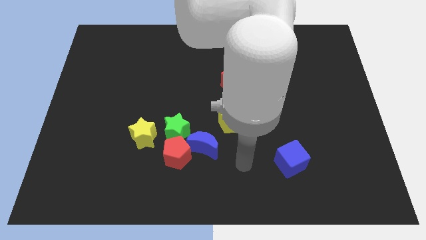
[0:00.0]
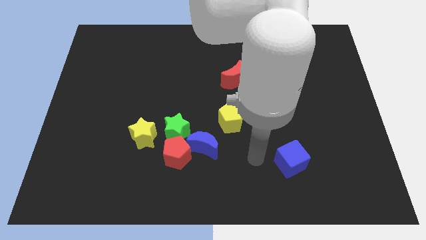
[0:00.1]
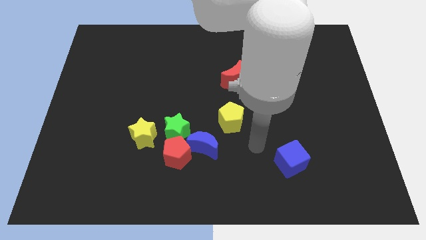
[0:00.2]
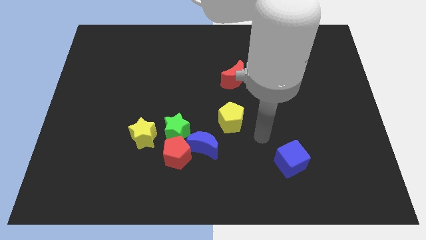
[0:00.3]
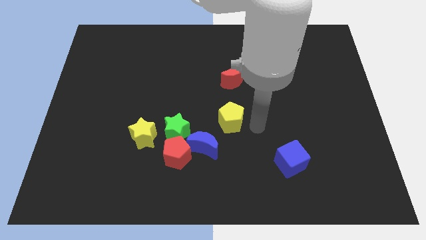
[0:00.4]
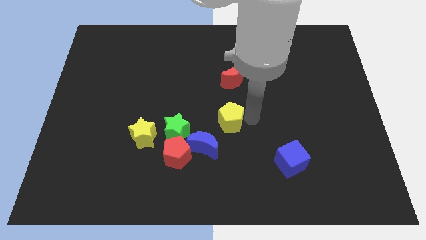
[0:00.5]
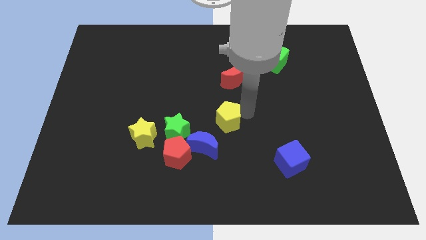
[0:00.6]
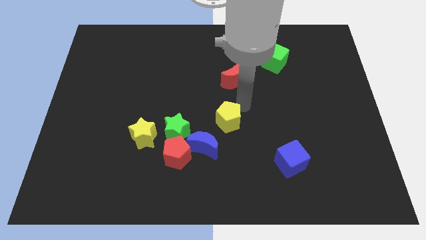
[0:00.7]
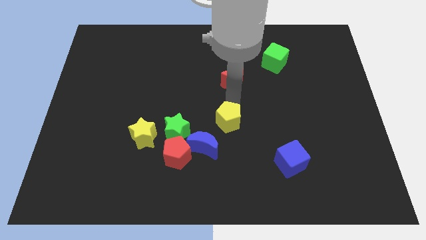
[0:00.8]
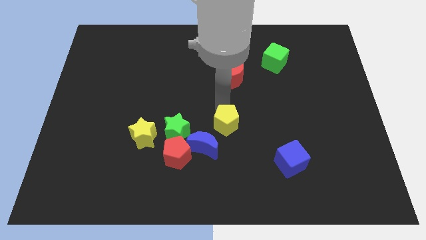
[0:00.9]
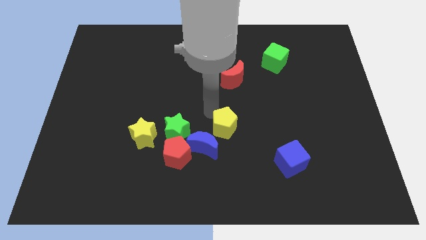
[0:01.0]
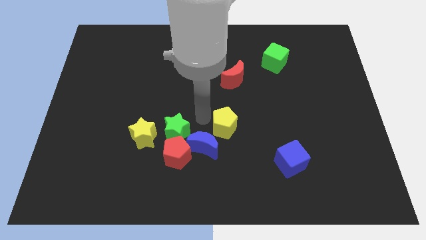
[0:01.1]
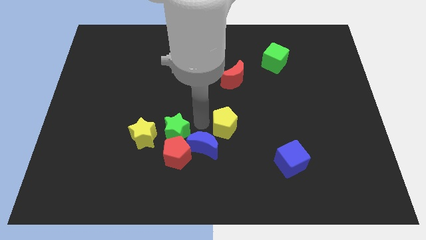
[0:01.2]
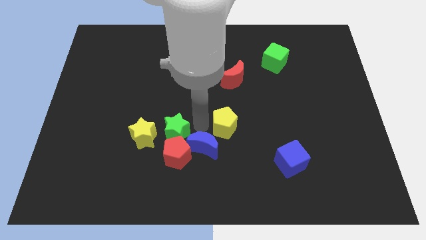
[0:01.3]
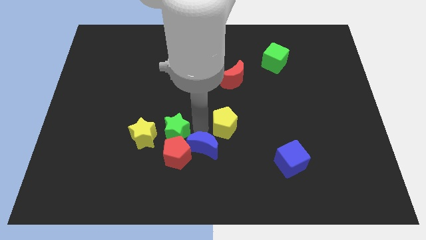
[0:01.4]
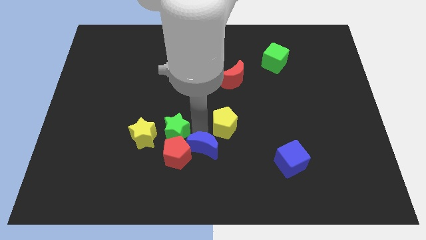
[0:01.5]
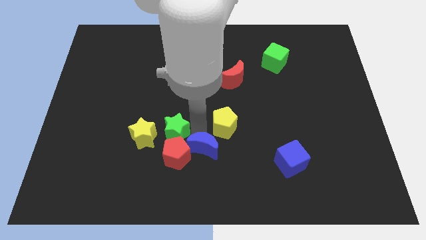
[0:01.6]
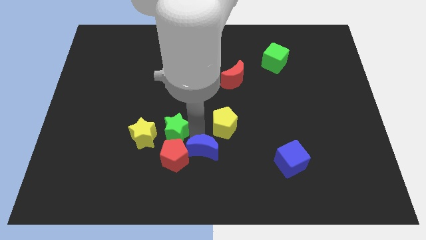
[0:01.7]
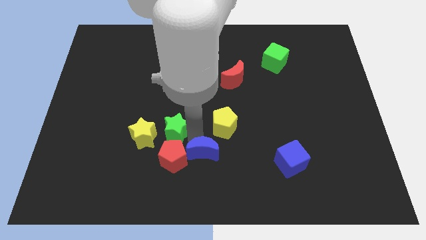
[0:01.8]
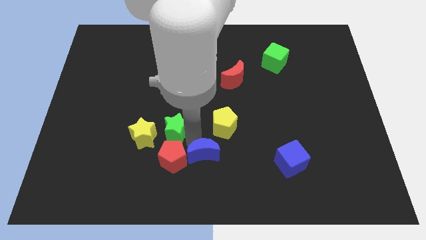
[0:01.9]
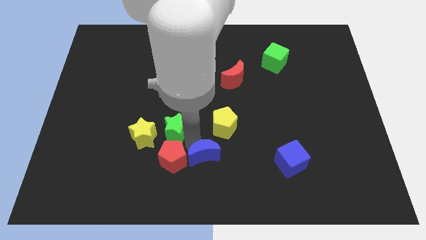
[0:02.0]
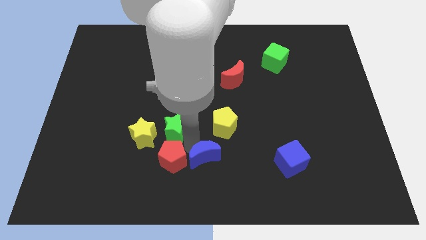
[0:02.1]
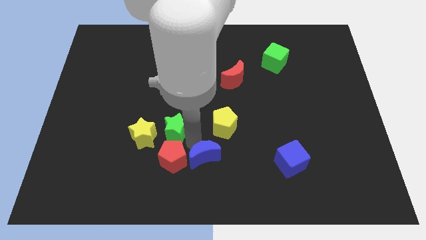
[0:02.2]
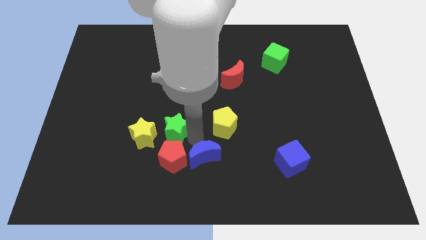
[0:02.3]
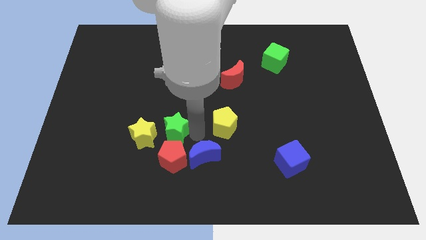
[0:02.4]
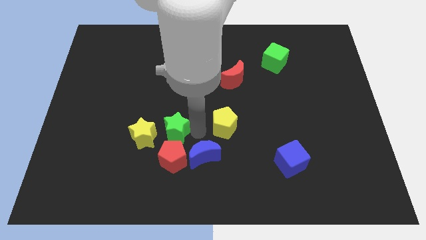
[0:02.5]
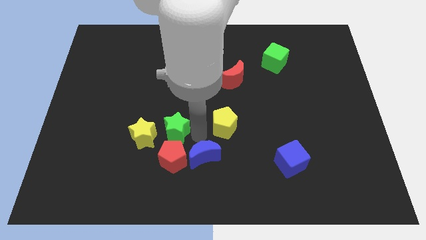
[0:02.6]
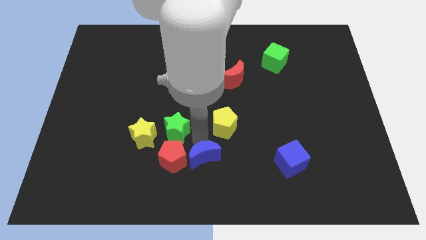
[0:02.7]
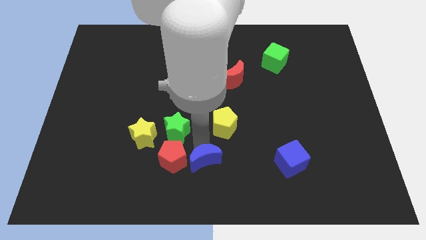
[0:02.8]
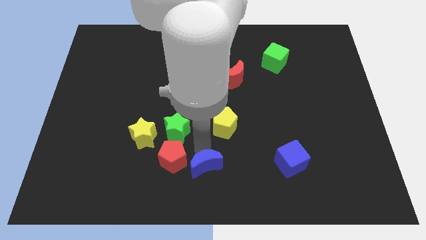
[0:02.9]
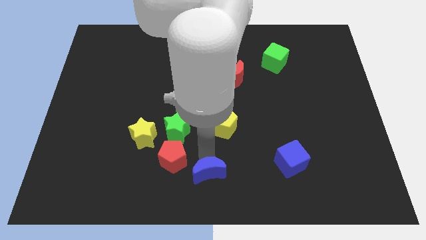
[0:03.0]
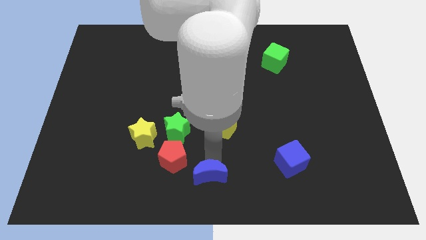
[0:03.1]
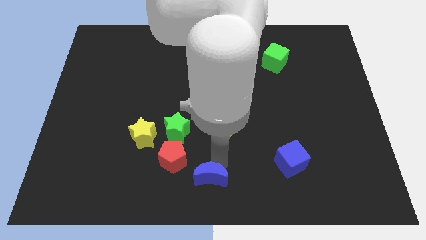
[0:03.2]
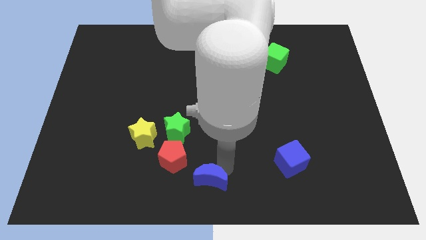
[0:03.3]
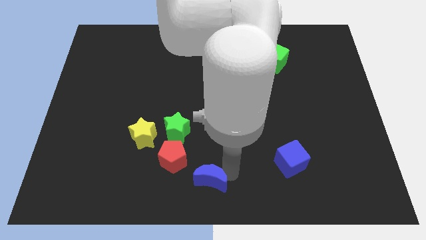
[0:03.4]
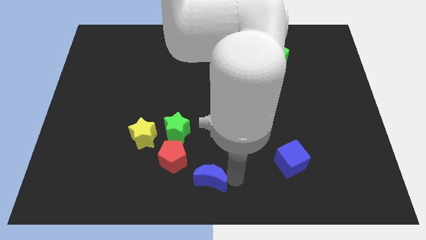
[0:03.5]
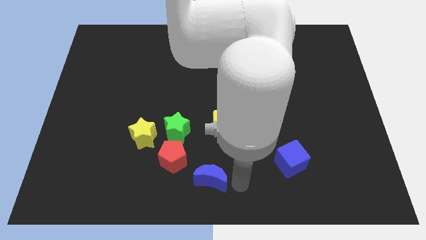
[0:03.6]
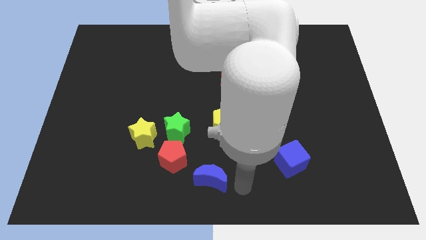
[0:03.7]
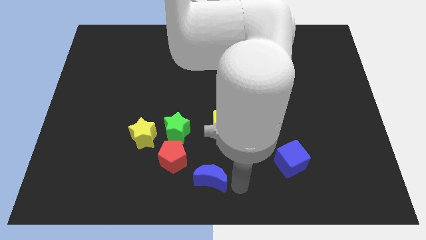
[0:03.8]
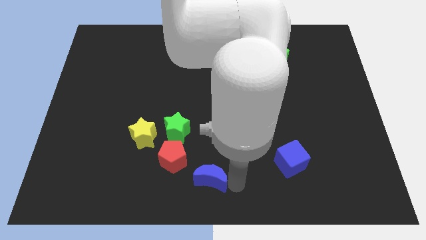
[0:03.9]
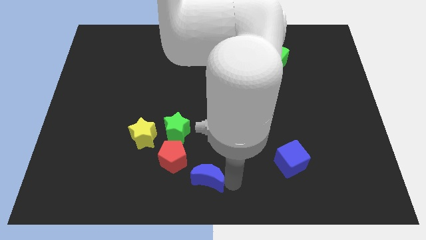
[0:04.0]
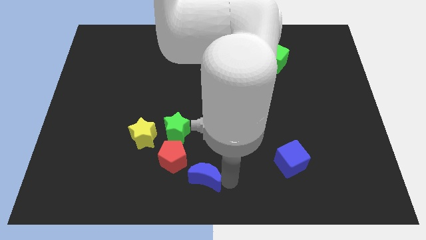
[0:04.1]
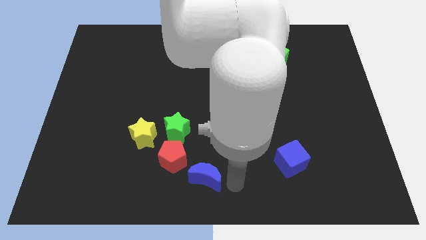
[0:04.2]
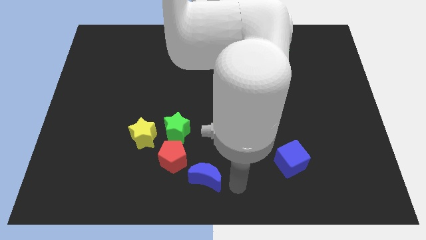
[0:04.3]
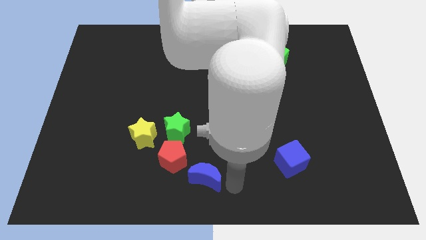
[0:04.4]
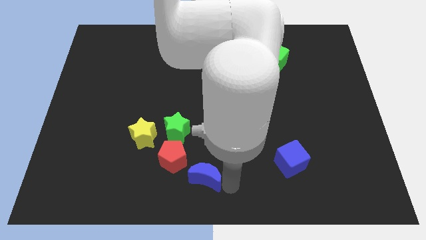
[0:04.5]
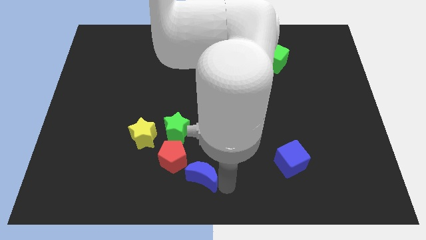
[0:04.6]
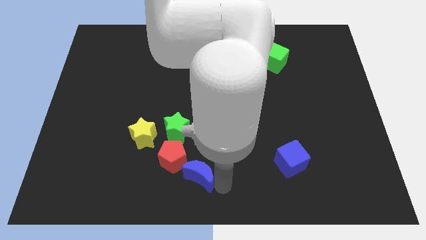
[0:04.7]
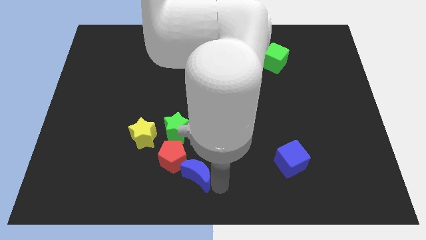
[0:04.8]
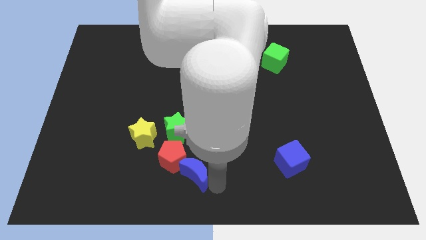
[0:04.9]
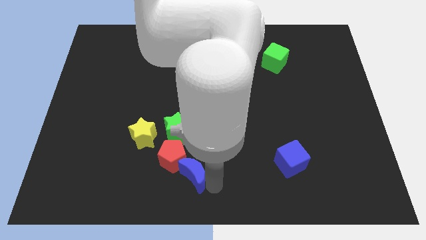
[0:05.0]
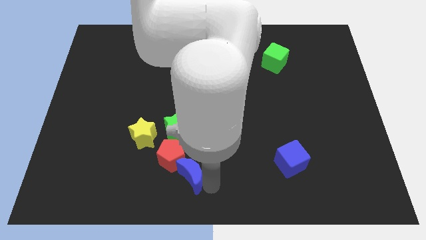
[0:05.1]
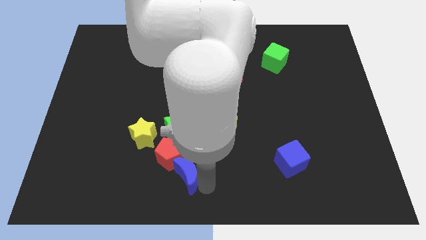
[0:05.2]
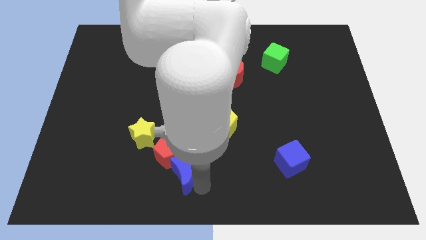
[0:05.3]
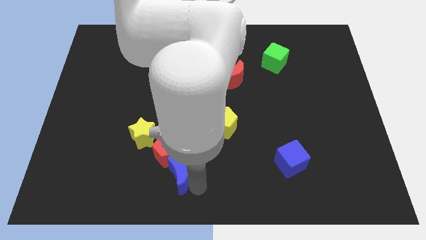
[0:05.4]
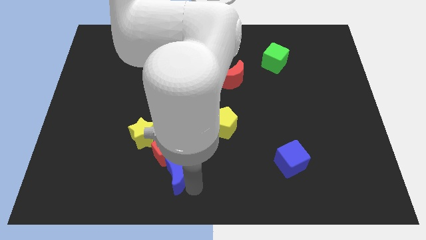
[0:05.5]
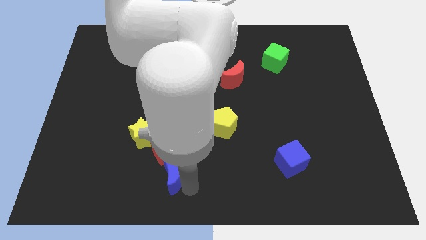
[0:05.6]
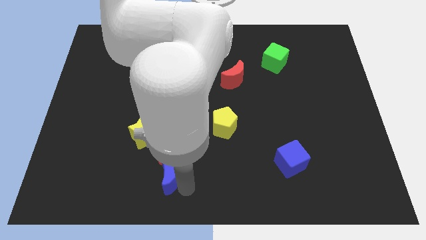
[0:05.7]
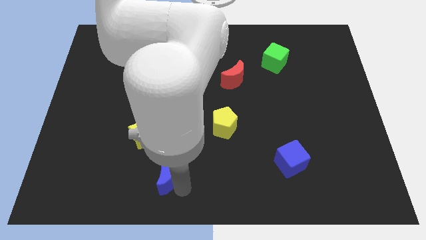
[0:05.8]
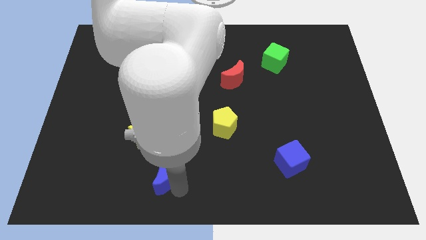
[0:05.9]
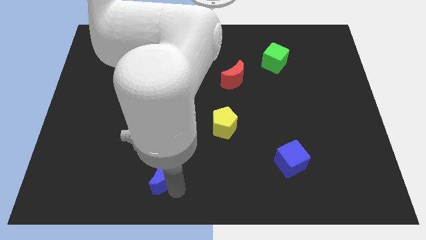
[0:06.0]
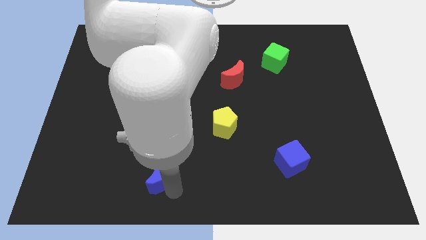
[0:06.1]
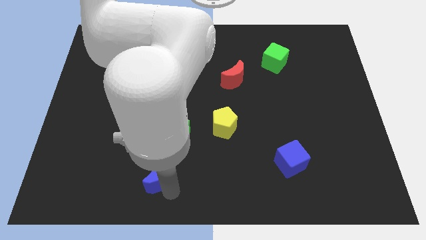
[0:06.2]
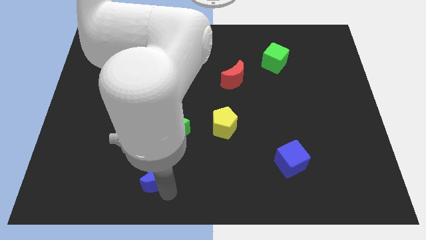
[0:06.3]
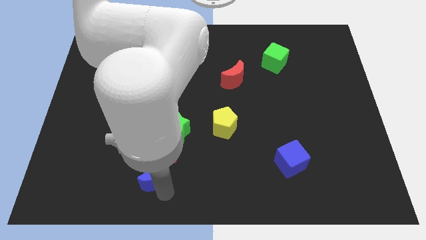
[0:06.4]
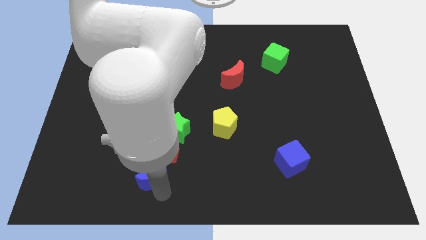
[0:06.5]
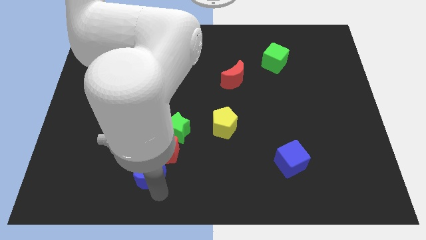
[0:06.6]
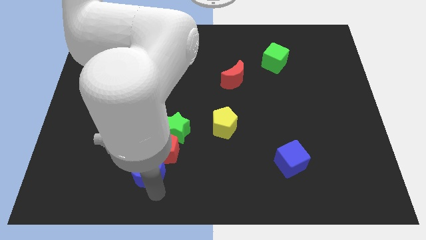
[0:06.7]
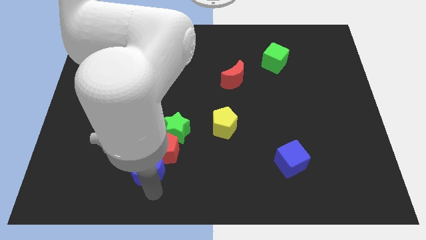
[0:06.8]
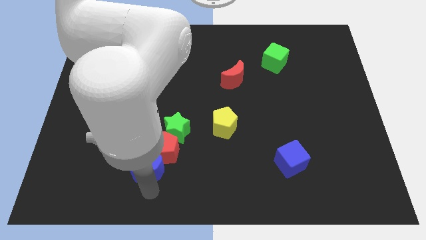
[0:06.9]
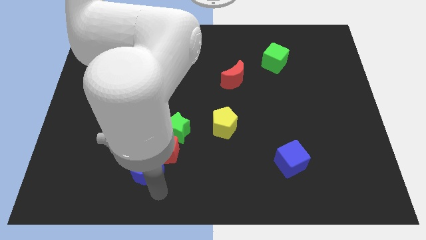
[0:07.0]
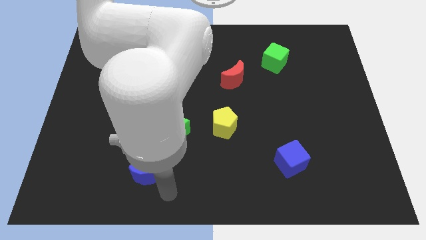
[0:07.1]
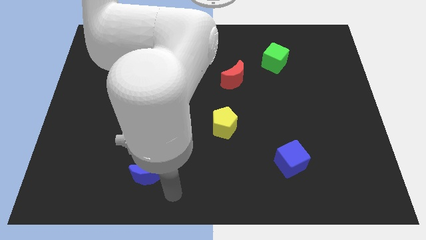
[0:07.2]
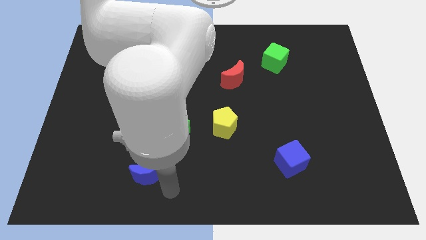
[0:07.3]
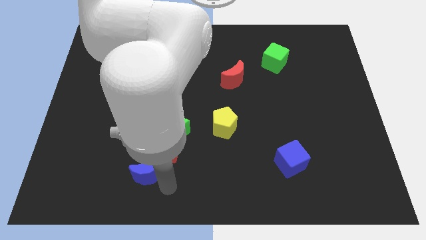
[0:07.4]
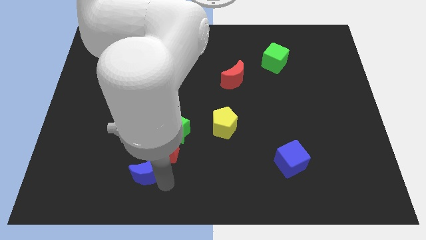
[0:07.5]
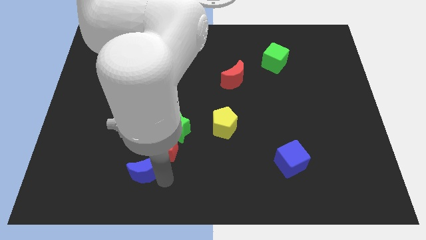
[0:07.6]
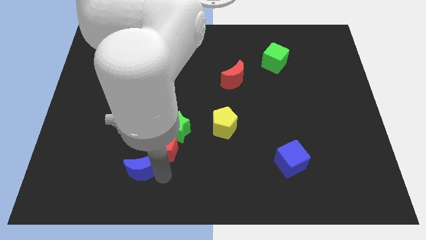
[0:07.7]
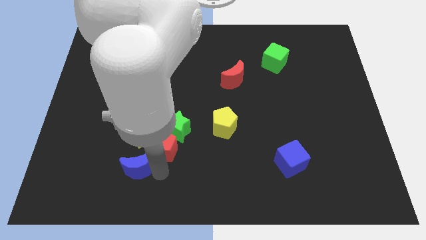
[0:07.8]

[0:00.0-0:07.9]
push the blue moon left of the red pentagon
